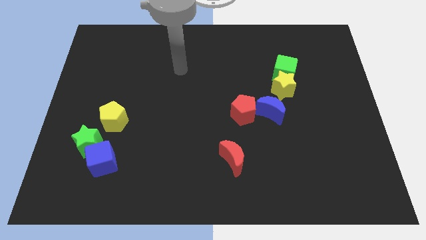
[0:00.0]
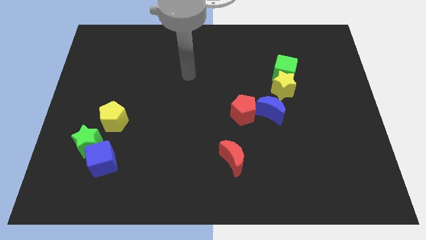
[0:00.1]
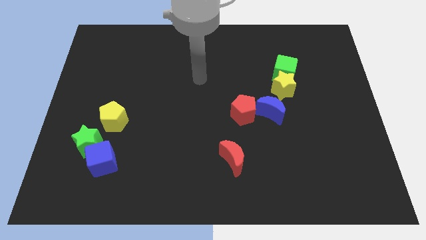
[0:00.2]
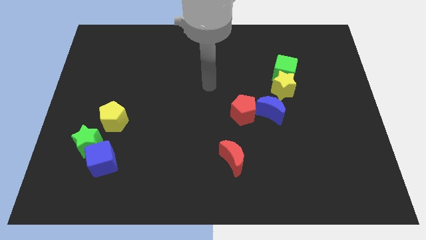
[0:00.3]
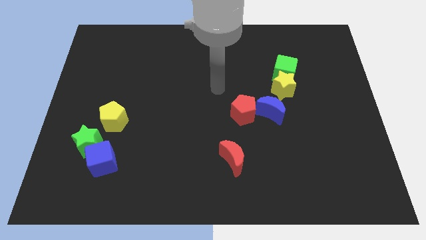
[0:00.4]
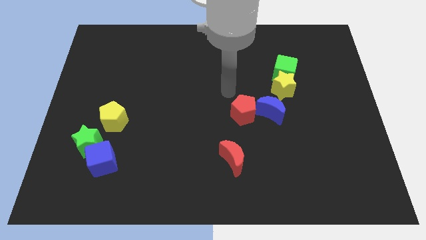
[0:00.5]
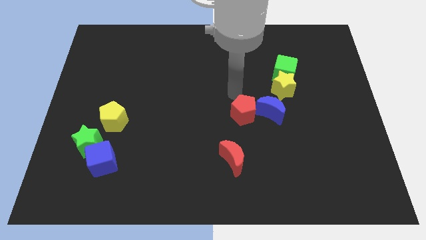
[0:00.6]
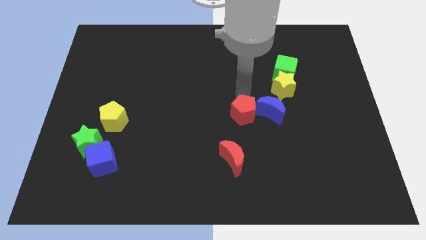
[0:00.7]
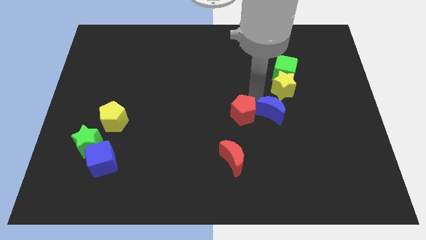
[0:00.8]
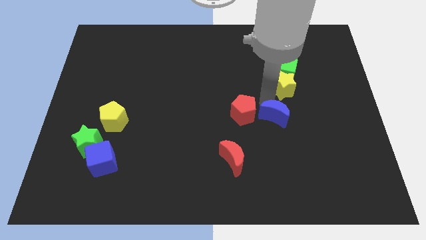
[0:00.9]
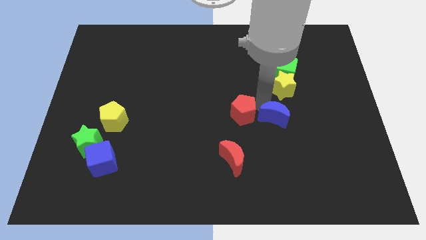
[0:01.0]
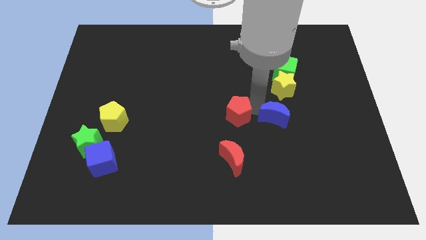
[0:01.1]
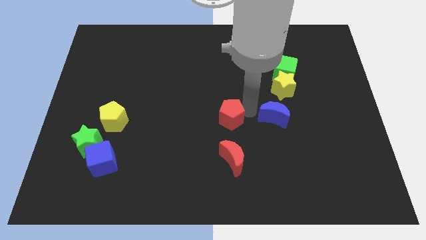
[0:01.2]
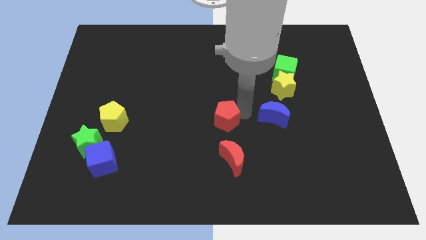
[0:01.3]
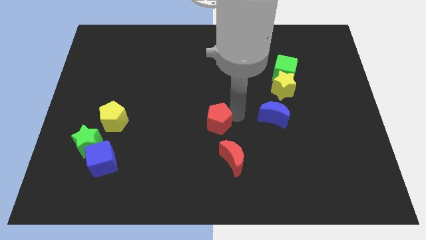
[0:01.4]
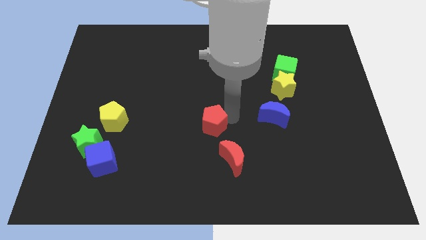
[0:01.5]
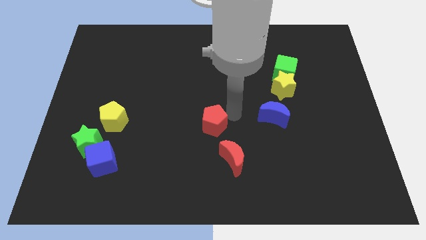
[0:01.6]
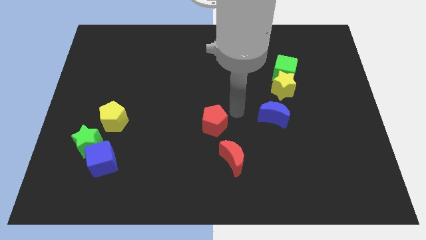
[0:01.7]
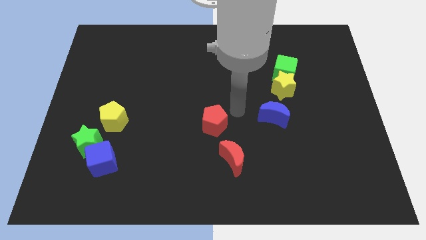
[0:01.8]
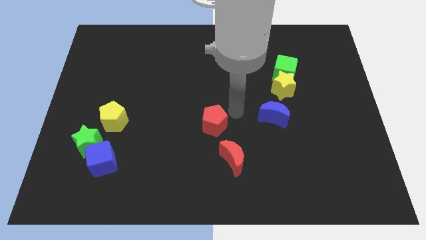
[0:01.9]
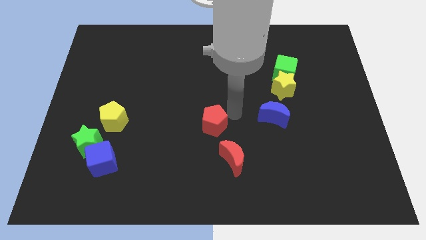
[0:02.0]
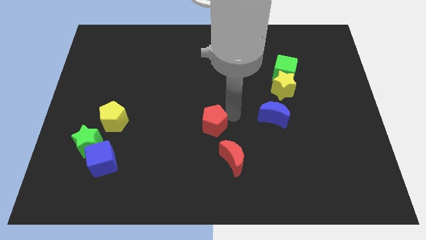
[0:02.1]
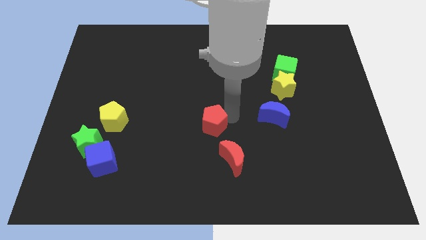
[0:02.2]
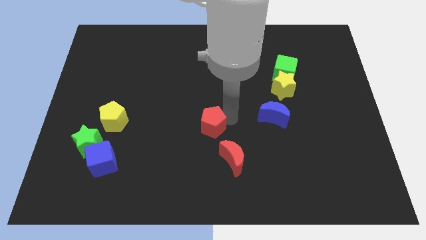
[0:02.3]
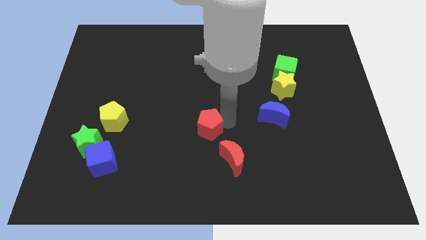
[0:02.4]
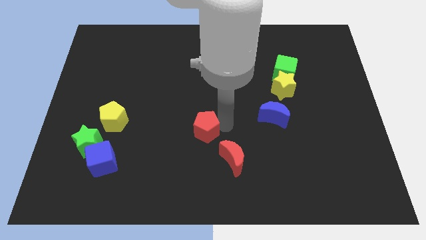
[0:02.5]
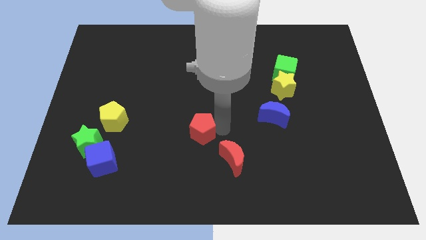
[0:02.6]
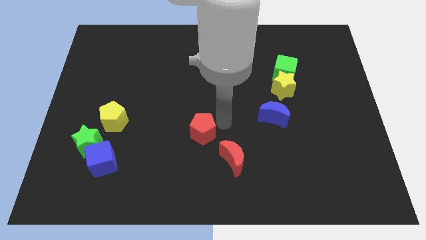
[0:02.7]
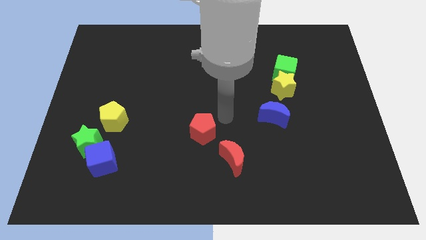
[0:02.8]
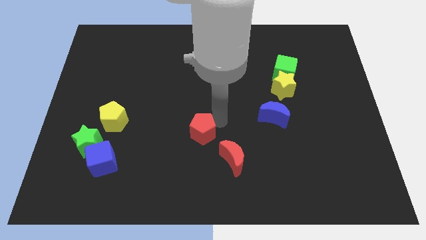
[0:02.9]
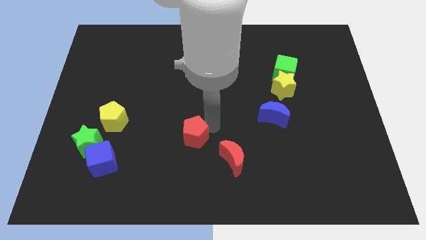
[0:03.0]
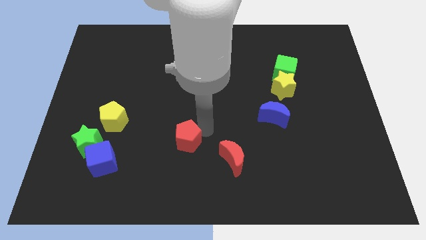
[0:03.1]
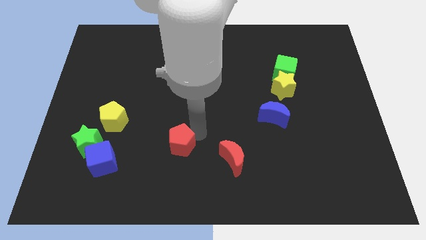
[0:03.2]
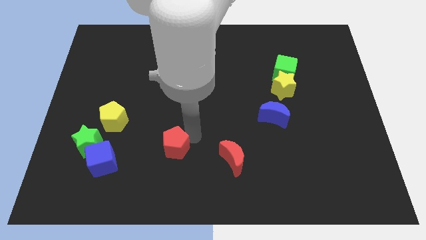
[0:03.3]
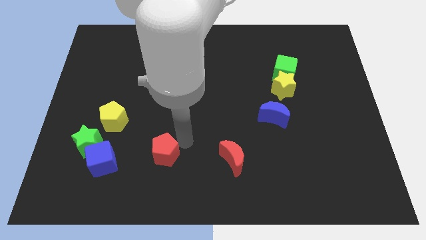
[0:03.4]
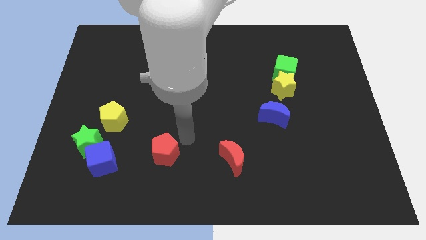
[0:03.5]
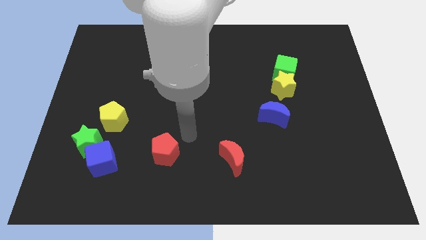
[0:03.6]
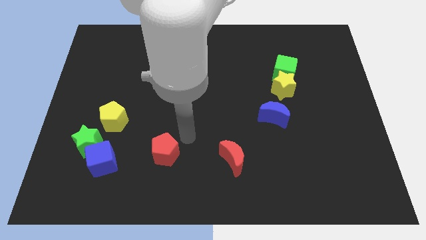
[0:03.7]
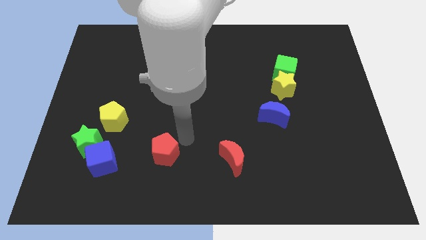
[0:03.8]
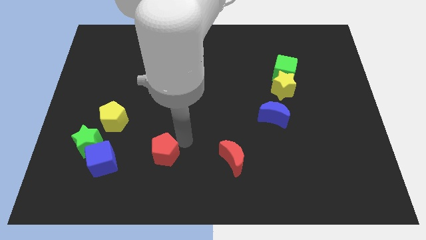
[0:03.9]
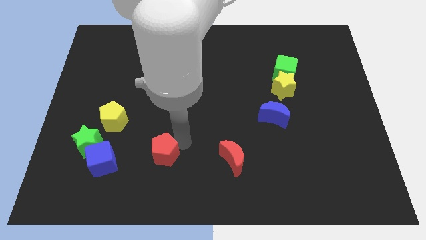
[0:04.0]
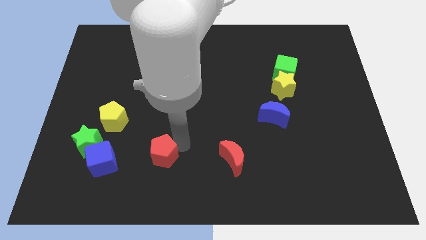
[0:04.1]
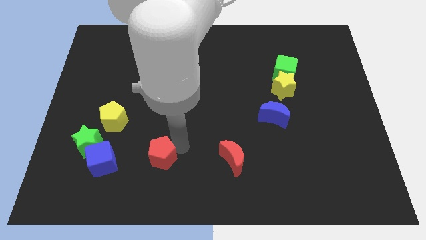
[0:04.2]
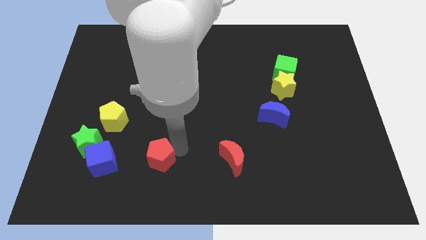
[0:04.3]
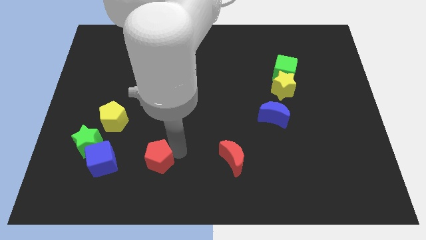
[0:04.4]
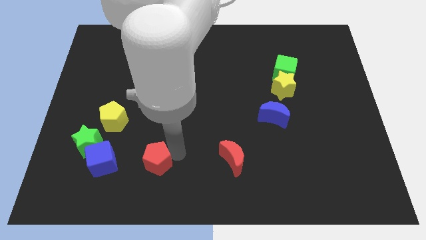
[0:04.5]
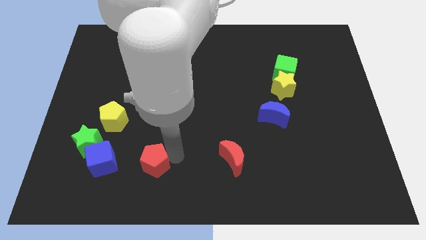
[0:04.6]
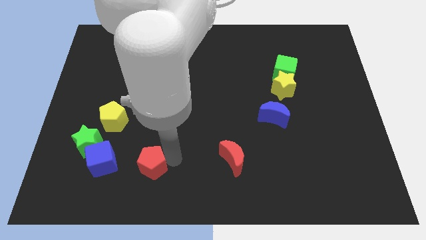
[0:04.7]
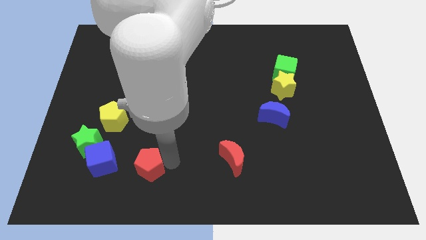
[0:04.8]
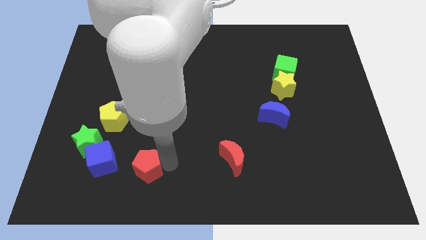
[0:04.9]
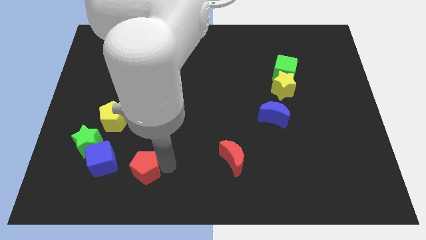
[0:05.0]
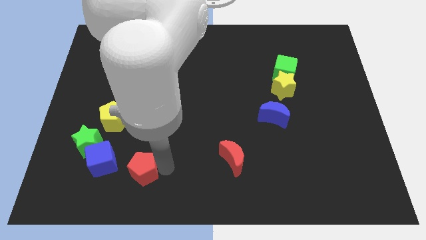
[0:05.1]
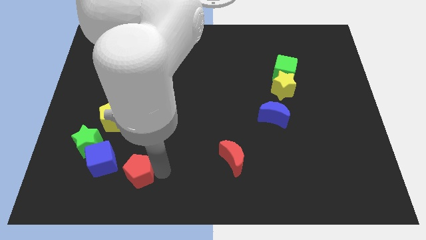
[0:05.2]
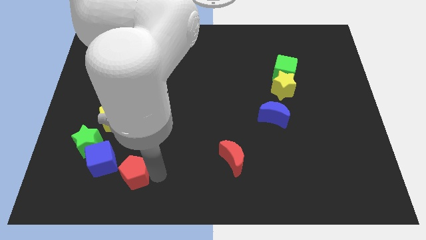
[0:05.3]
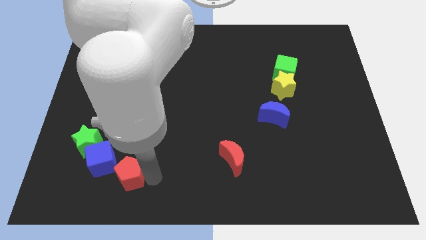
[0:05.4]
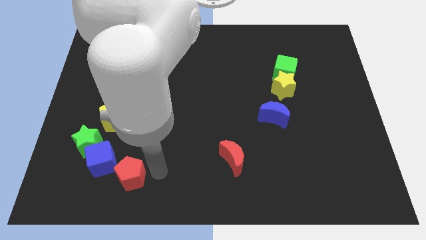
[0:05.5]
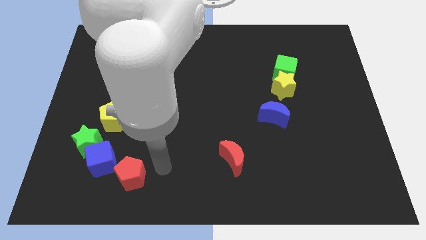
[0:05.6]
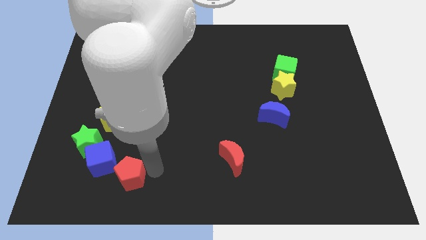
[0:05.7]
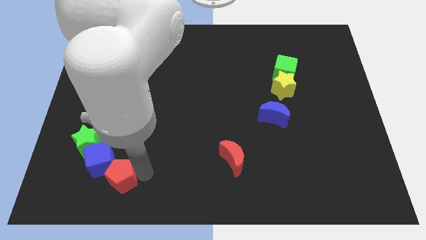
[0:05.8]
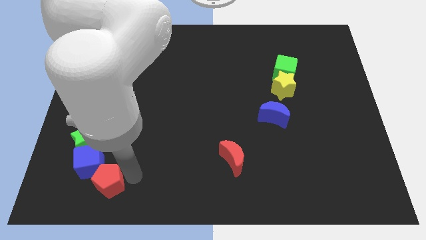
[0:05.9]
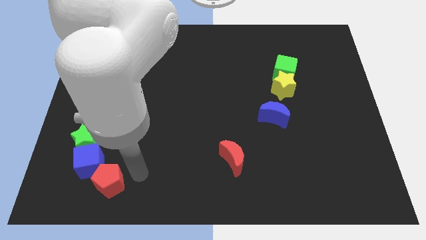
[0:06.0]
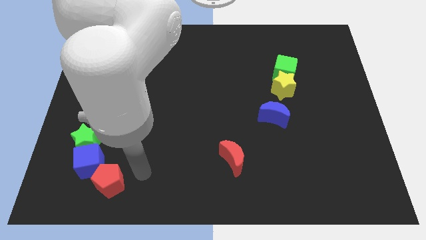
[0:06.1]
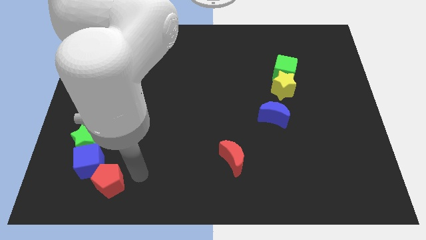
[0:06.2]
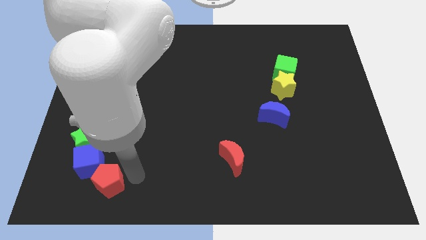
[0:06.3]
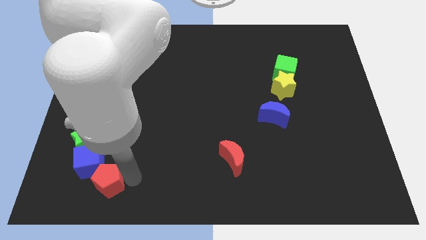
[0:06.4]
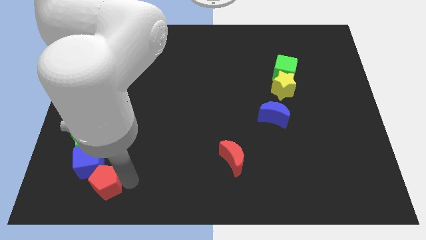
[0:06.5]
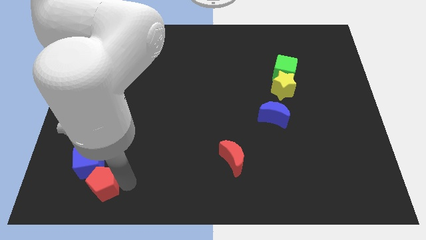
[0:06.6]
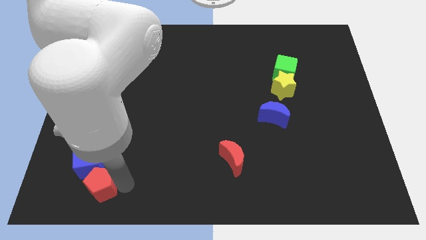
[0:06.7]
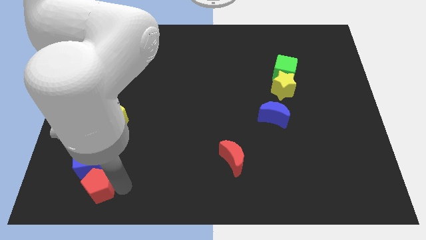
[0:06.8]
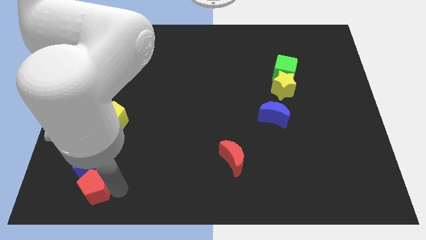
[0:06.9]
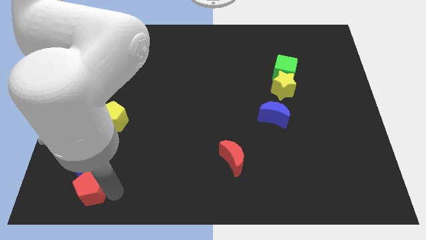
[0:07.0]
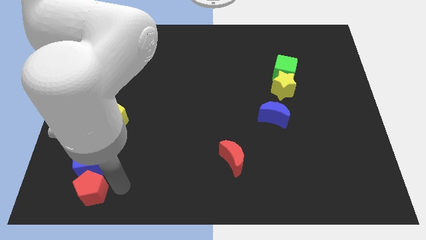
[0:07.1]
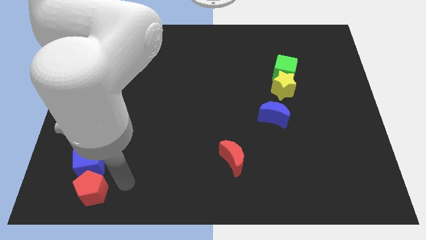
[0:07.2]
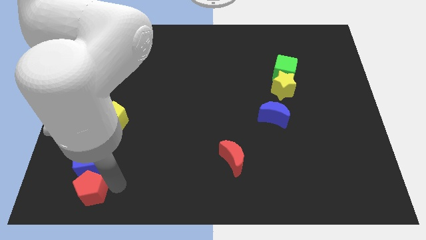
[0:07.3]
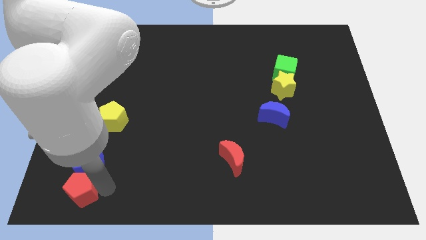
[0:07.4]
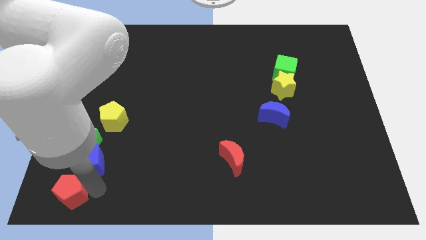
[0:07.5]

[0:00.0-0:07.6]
move the red pentagon to the bottom left
